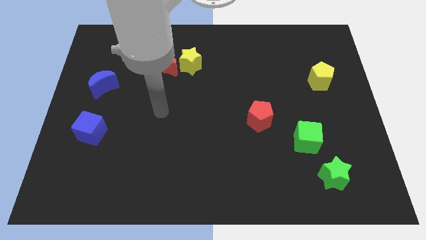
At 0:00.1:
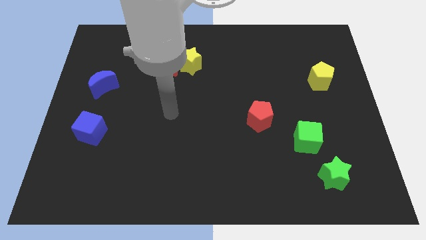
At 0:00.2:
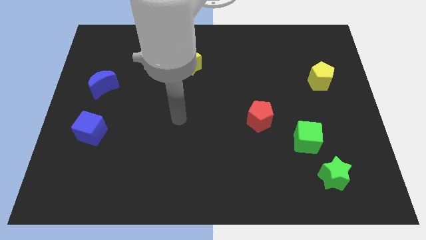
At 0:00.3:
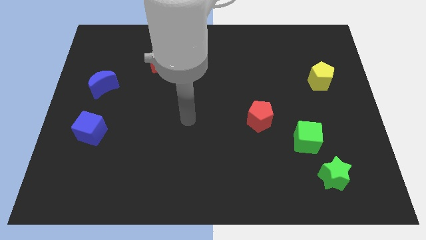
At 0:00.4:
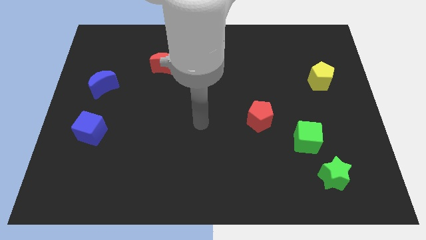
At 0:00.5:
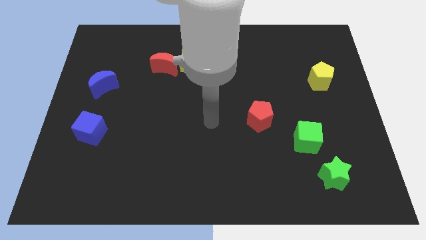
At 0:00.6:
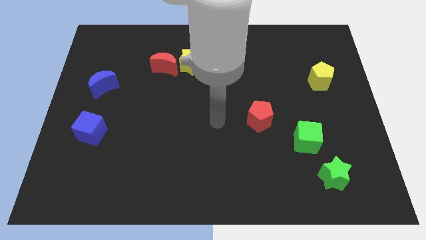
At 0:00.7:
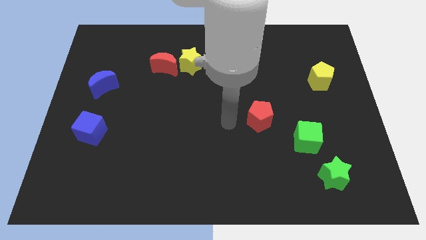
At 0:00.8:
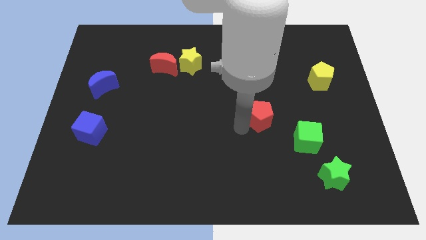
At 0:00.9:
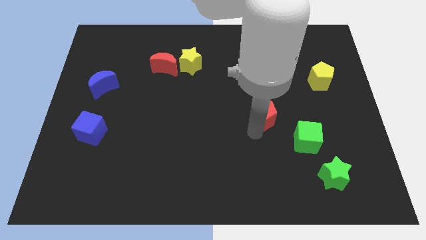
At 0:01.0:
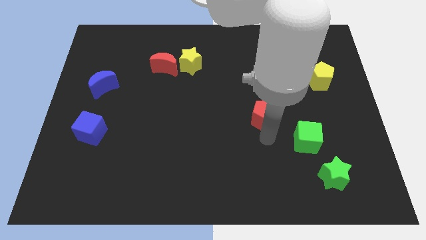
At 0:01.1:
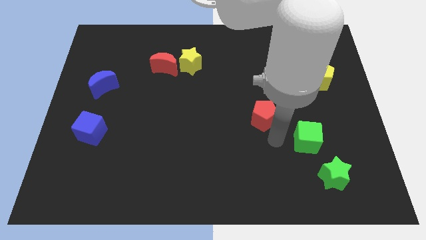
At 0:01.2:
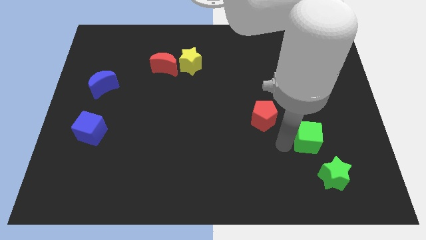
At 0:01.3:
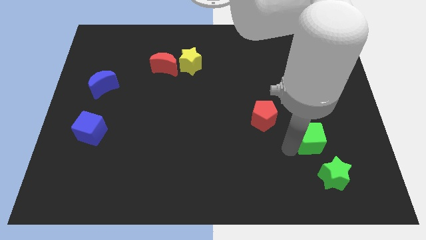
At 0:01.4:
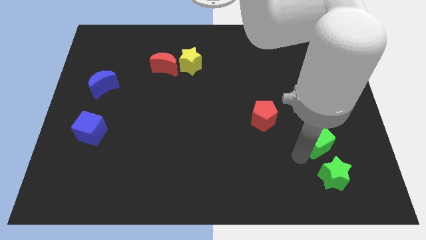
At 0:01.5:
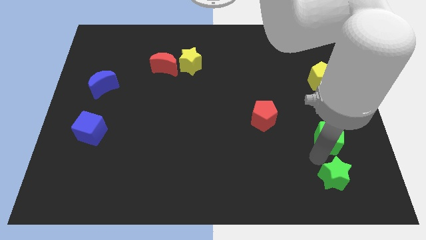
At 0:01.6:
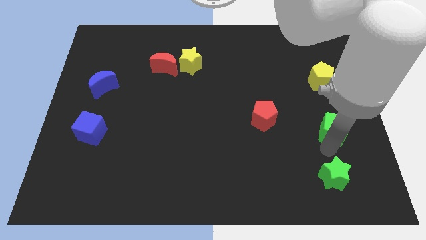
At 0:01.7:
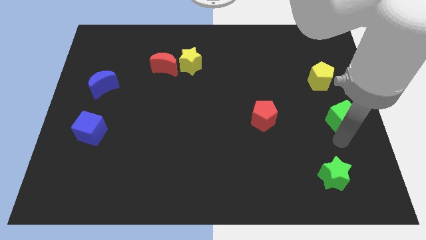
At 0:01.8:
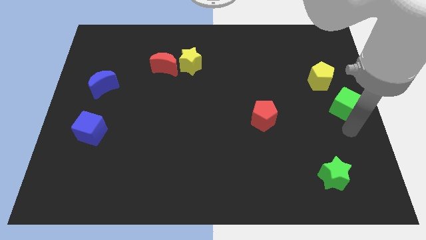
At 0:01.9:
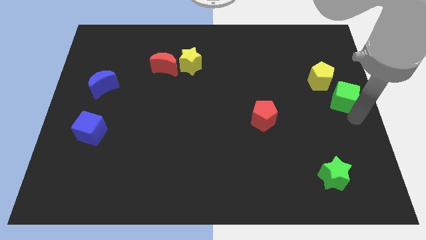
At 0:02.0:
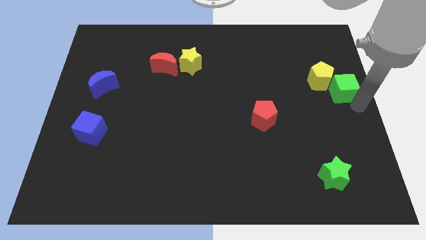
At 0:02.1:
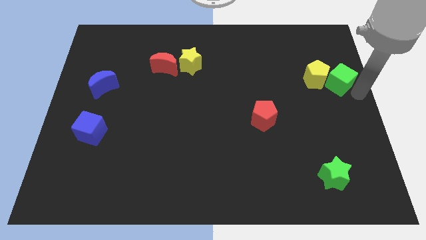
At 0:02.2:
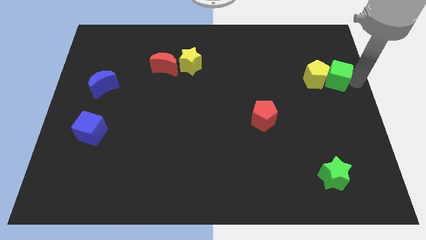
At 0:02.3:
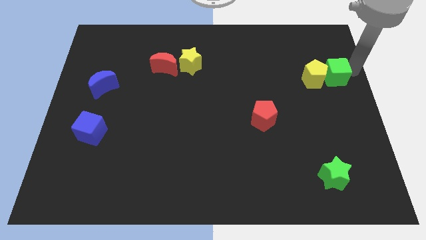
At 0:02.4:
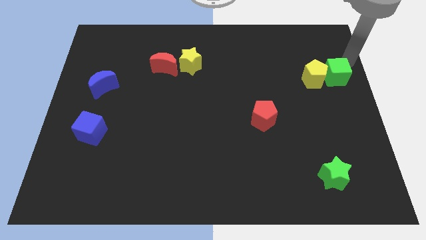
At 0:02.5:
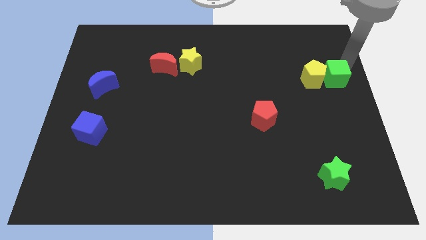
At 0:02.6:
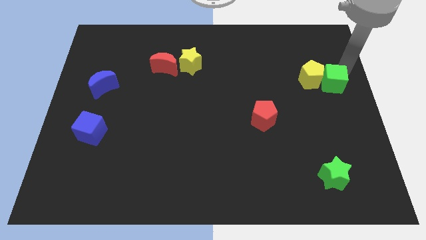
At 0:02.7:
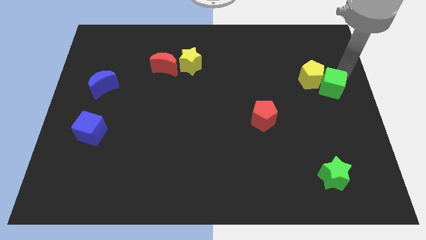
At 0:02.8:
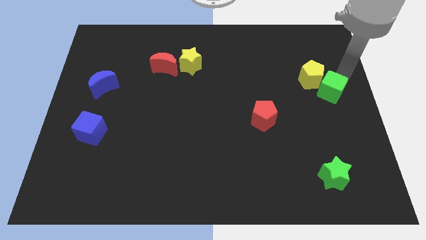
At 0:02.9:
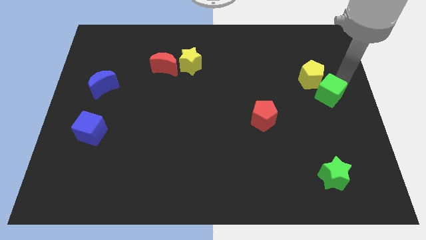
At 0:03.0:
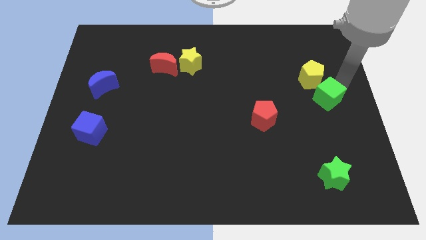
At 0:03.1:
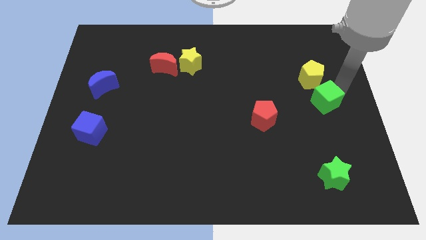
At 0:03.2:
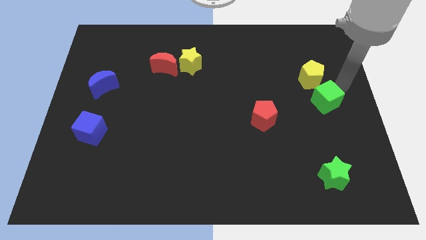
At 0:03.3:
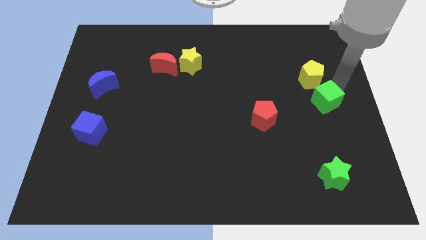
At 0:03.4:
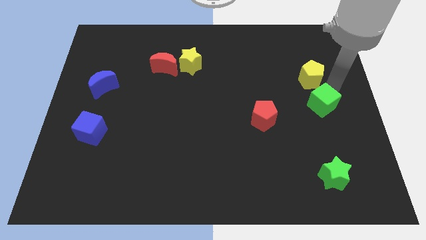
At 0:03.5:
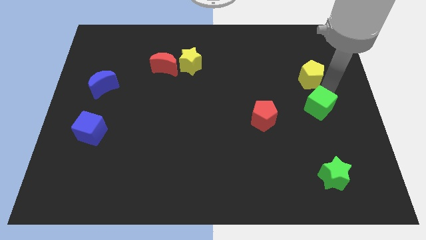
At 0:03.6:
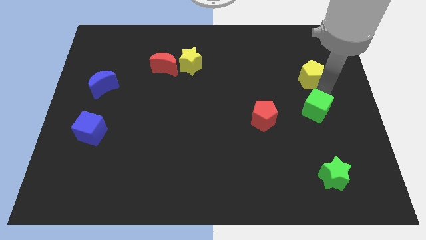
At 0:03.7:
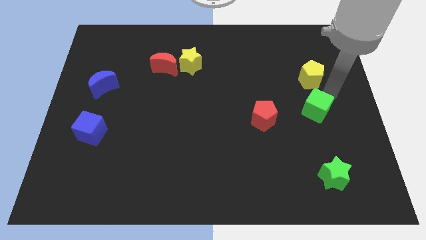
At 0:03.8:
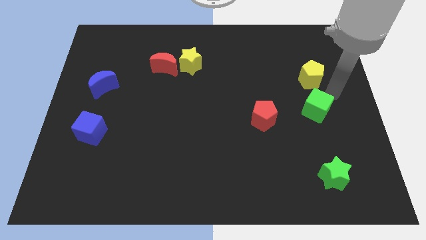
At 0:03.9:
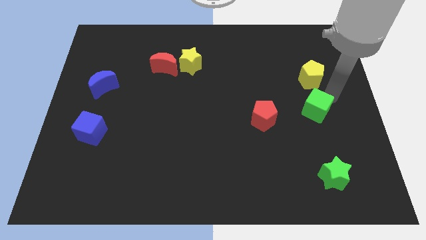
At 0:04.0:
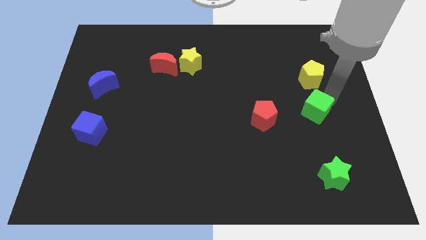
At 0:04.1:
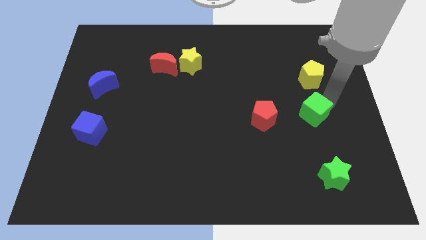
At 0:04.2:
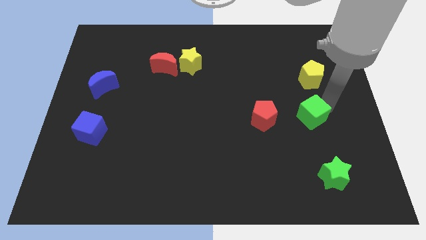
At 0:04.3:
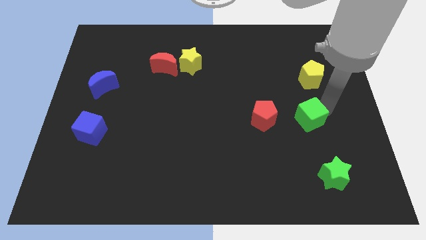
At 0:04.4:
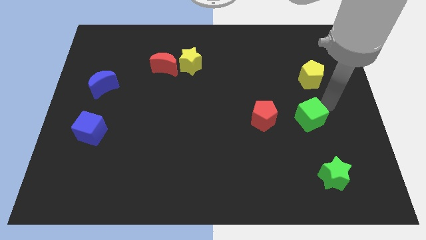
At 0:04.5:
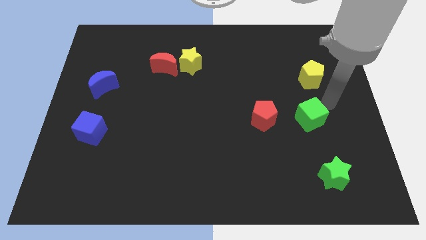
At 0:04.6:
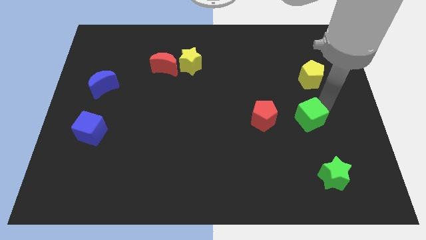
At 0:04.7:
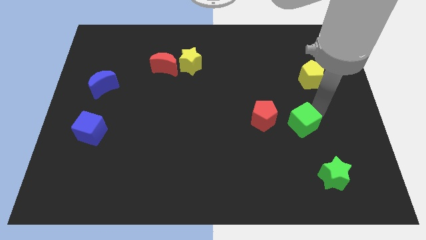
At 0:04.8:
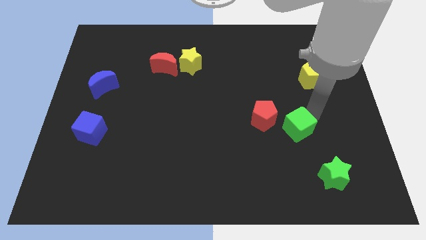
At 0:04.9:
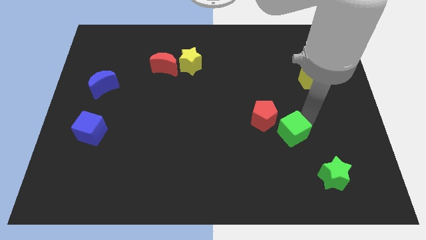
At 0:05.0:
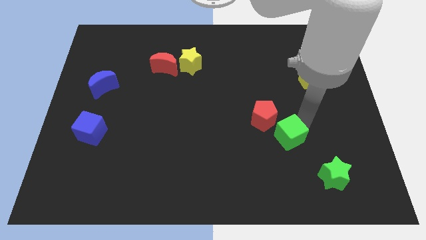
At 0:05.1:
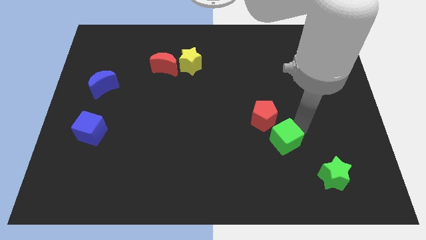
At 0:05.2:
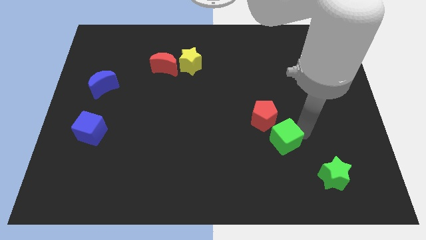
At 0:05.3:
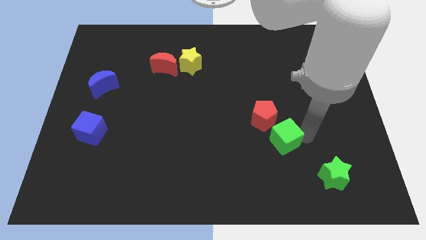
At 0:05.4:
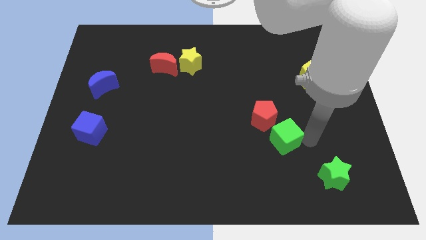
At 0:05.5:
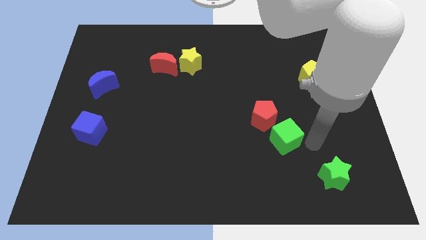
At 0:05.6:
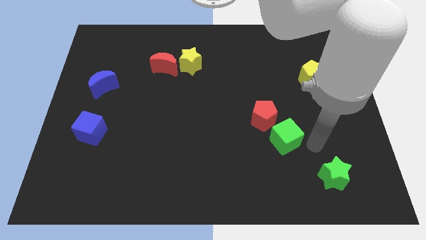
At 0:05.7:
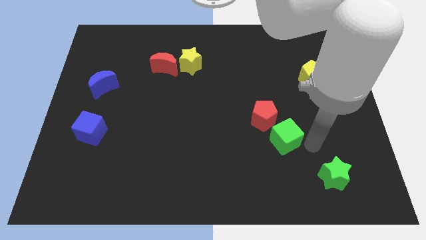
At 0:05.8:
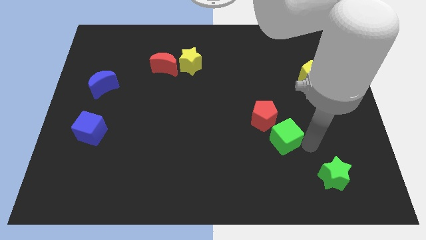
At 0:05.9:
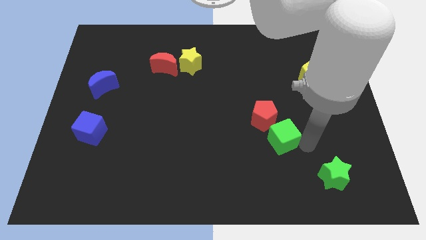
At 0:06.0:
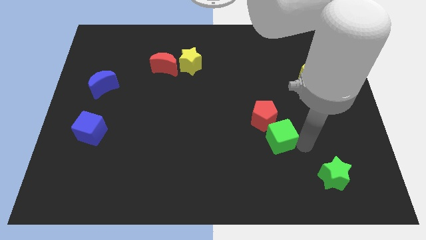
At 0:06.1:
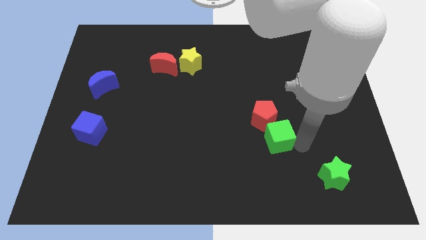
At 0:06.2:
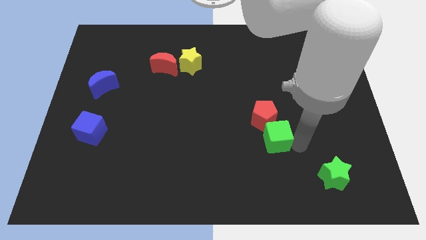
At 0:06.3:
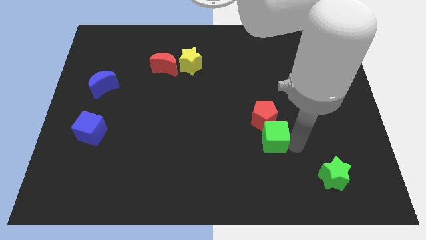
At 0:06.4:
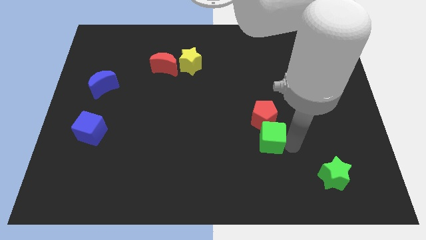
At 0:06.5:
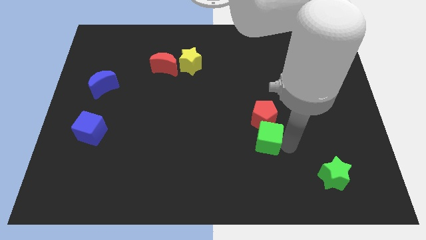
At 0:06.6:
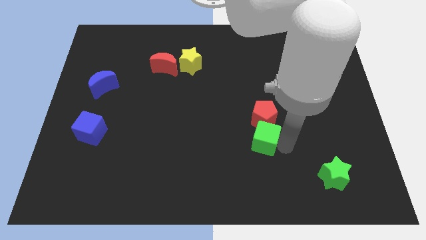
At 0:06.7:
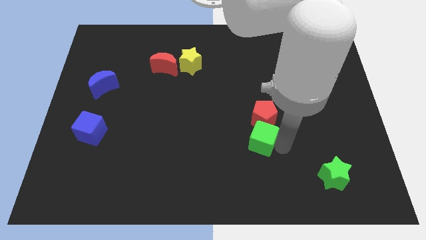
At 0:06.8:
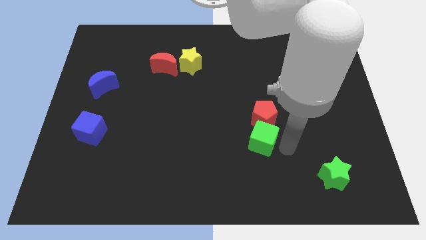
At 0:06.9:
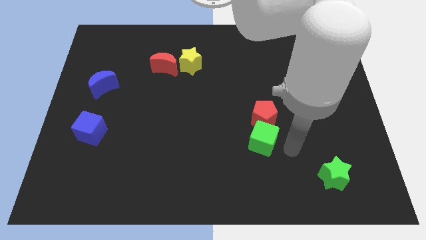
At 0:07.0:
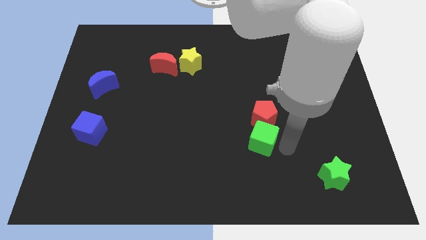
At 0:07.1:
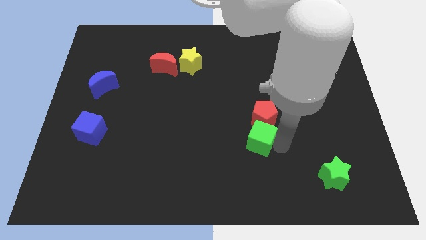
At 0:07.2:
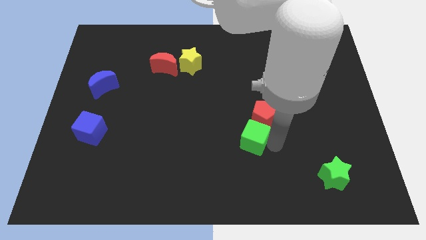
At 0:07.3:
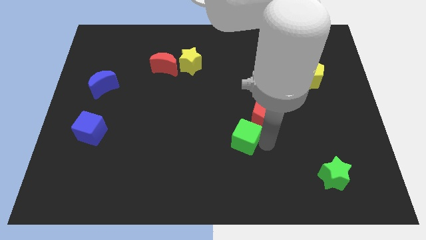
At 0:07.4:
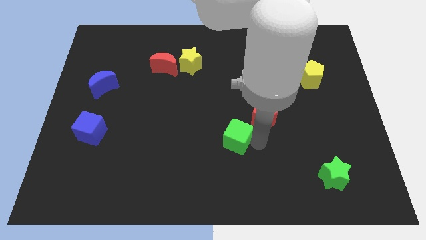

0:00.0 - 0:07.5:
push the green cube to the middle of the board
